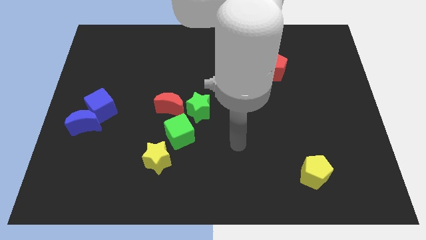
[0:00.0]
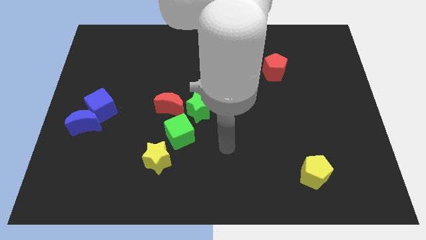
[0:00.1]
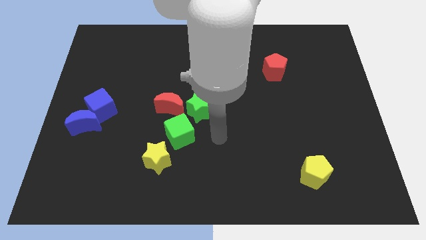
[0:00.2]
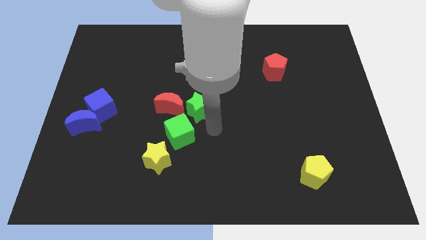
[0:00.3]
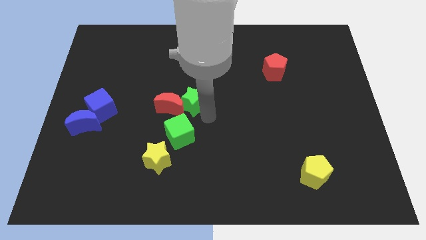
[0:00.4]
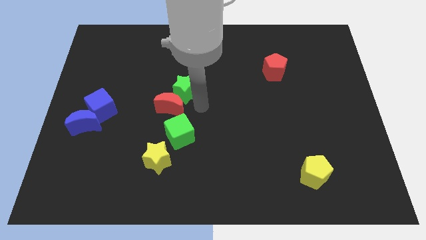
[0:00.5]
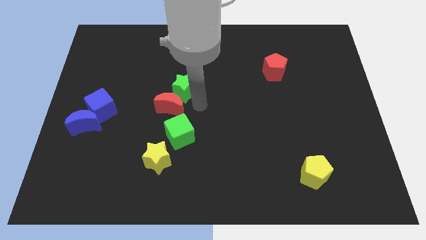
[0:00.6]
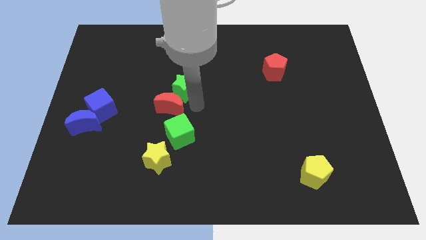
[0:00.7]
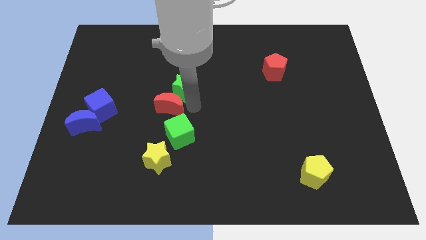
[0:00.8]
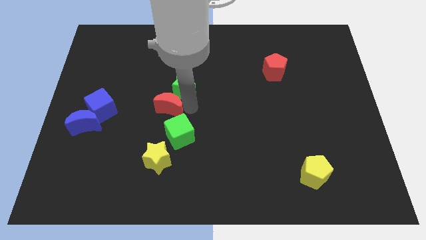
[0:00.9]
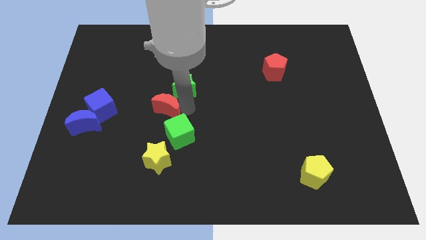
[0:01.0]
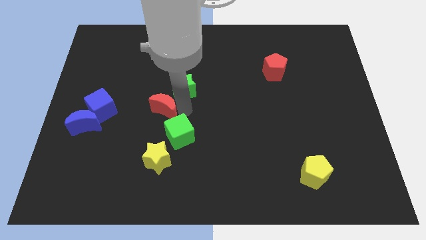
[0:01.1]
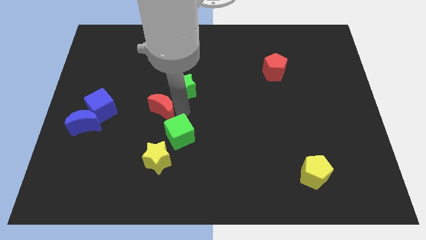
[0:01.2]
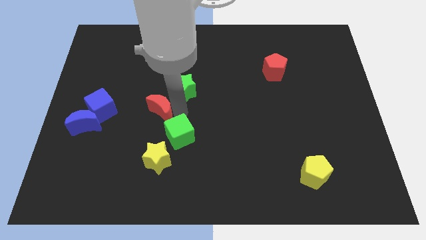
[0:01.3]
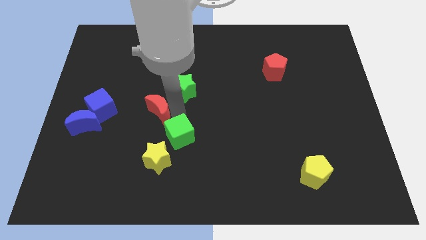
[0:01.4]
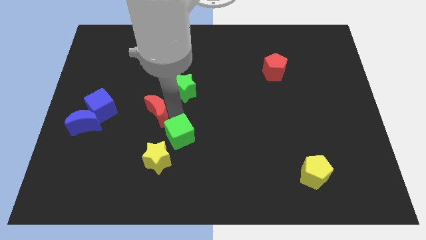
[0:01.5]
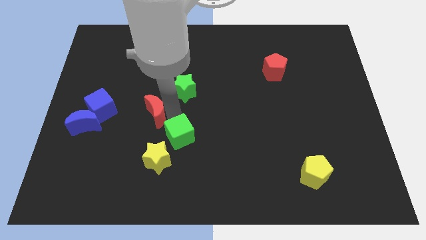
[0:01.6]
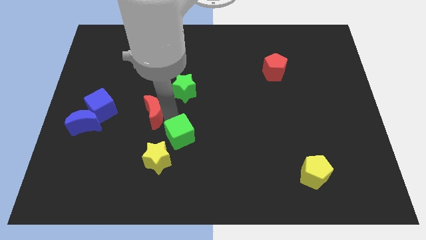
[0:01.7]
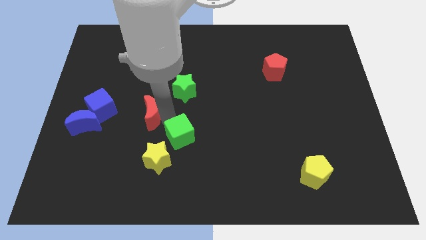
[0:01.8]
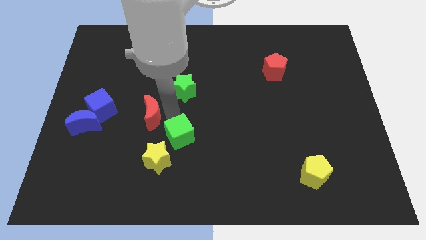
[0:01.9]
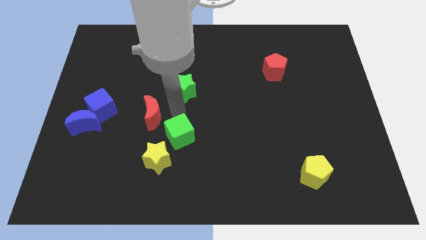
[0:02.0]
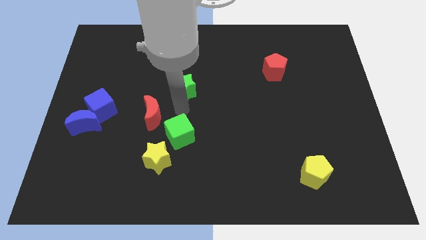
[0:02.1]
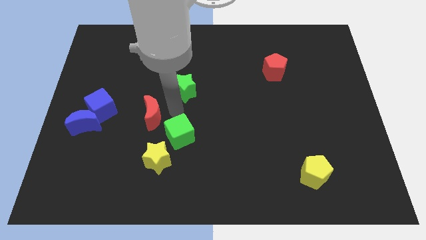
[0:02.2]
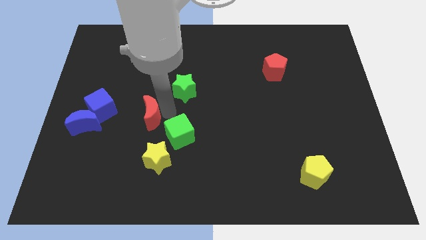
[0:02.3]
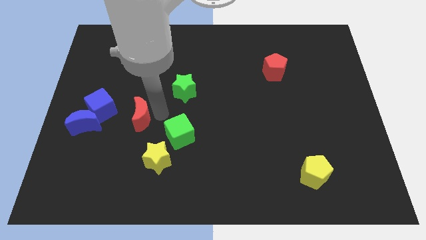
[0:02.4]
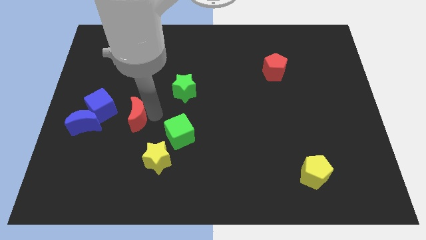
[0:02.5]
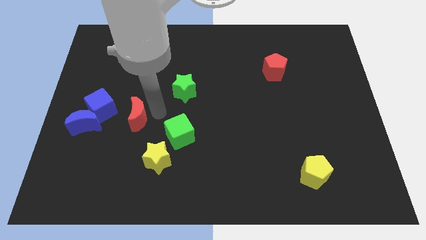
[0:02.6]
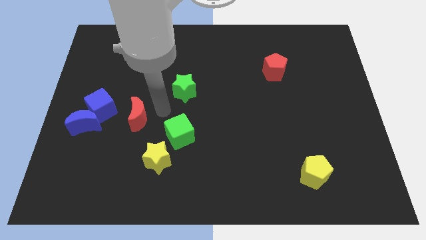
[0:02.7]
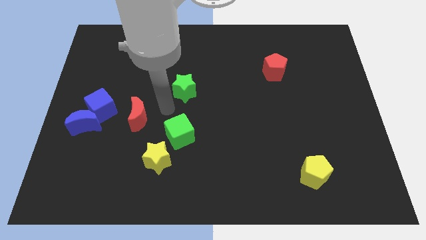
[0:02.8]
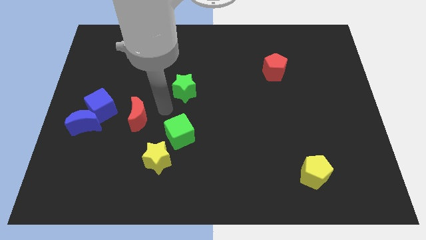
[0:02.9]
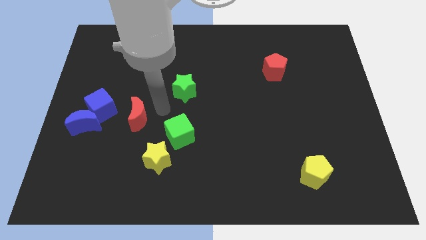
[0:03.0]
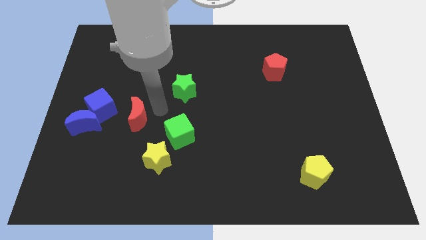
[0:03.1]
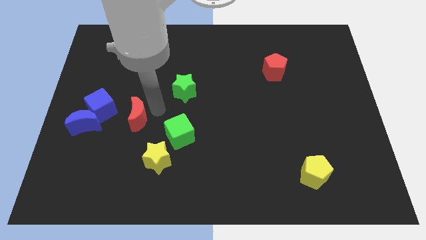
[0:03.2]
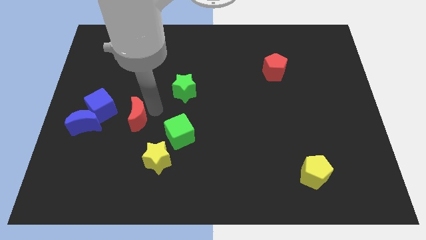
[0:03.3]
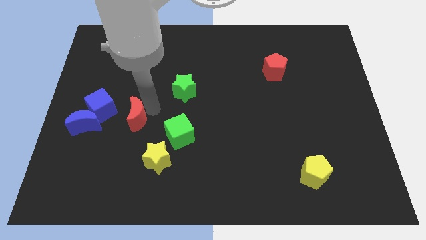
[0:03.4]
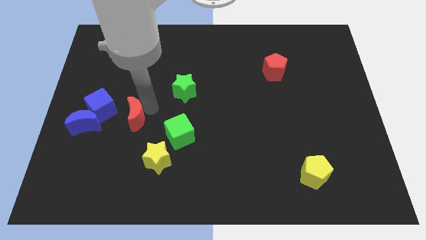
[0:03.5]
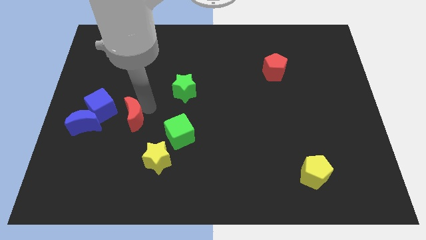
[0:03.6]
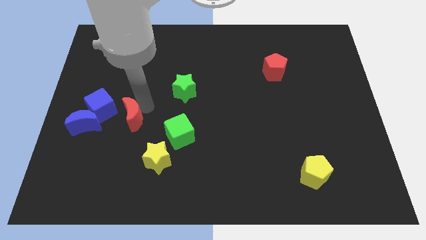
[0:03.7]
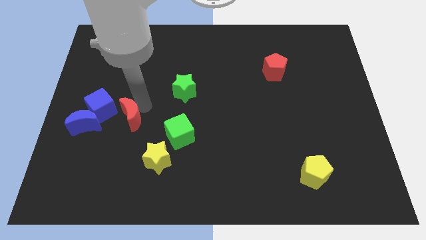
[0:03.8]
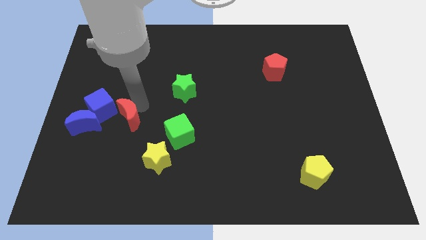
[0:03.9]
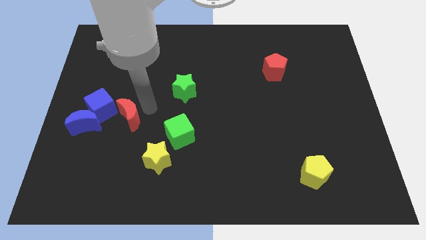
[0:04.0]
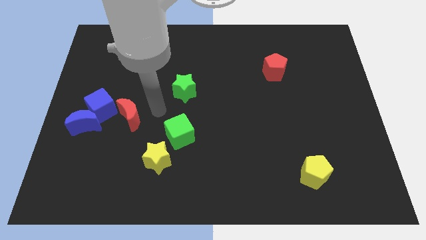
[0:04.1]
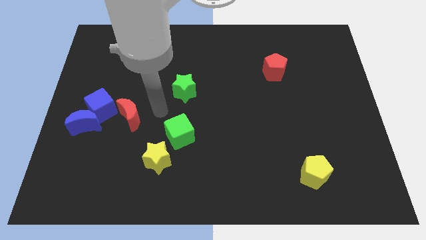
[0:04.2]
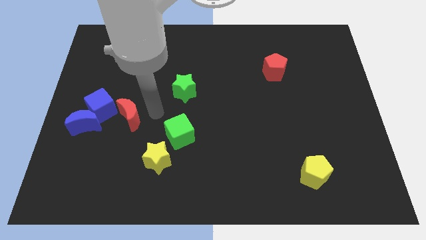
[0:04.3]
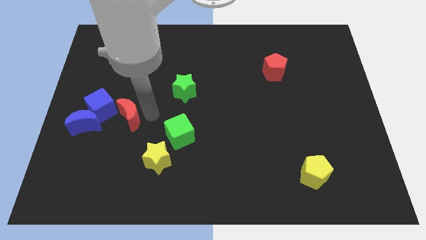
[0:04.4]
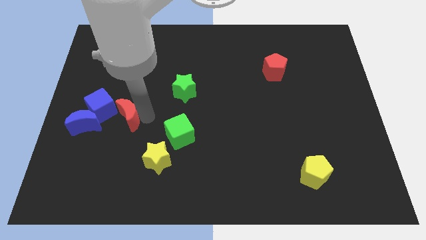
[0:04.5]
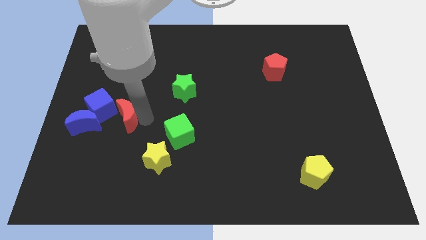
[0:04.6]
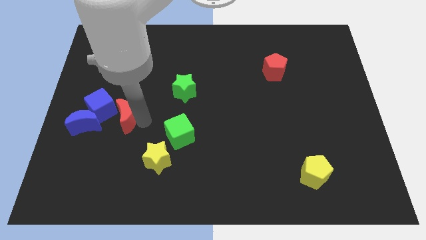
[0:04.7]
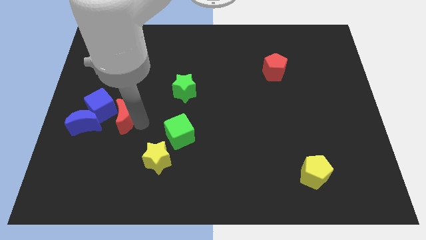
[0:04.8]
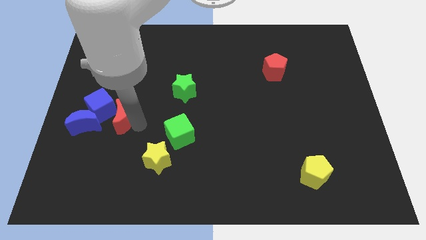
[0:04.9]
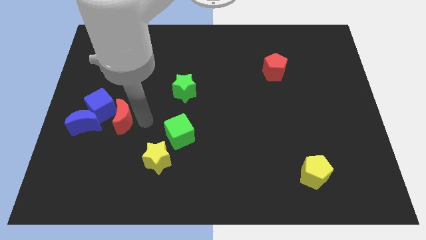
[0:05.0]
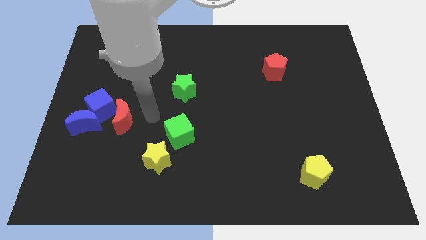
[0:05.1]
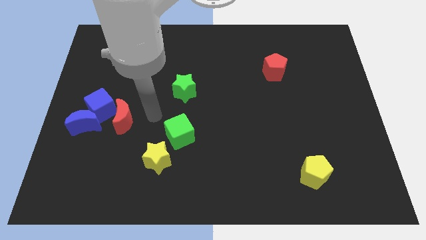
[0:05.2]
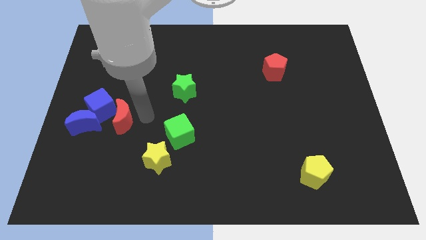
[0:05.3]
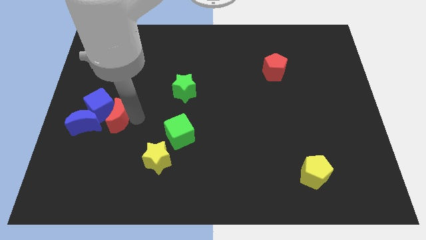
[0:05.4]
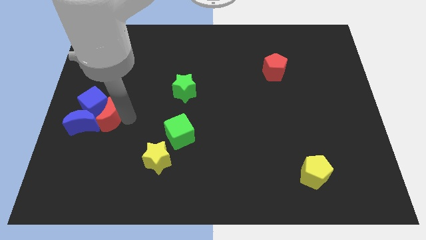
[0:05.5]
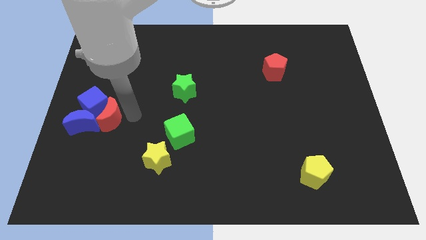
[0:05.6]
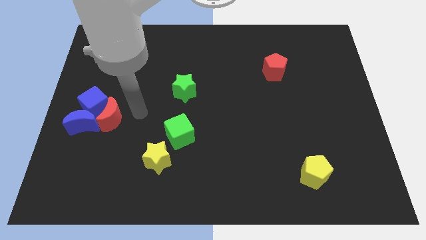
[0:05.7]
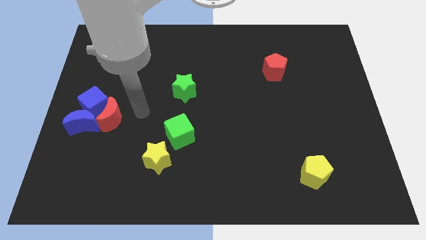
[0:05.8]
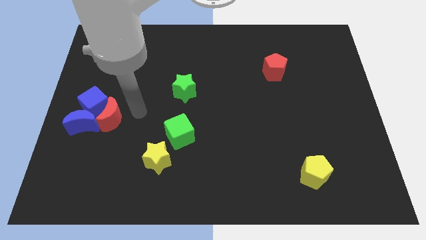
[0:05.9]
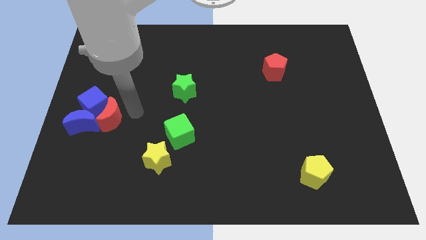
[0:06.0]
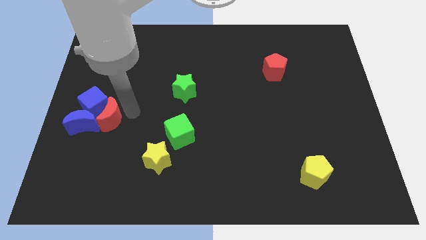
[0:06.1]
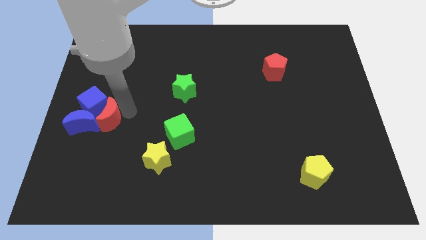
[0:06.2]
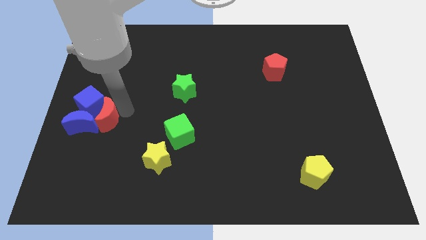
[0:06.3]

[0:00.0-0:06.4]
slide the red moon to the blue moon
